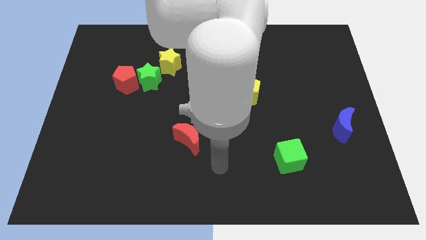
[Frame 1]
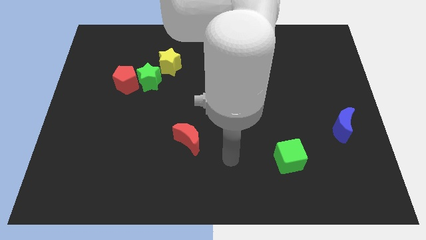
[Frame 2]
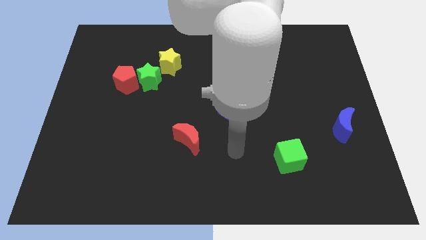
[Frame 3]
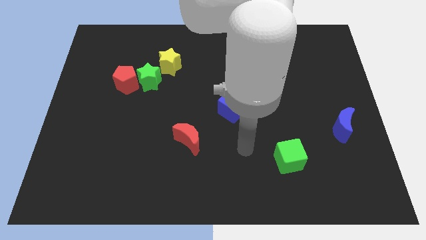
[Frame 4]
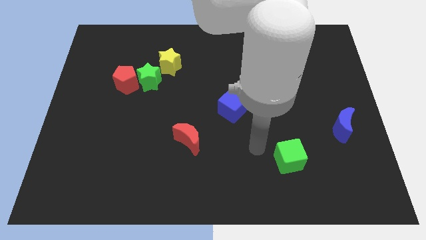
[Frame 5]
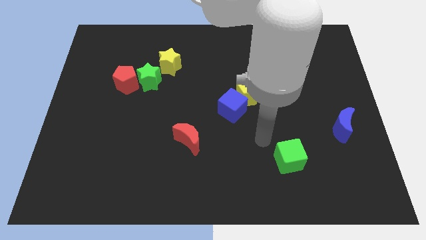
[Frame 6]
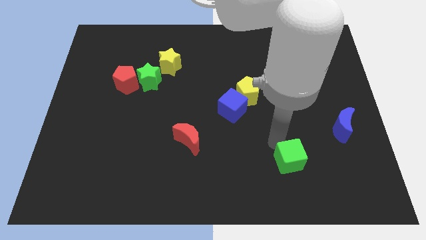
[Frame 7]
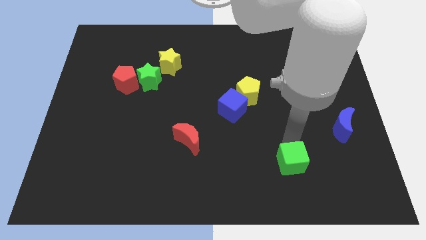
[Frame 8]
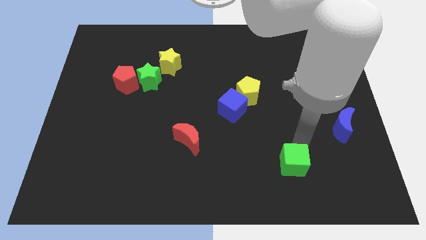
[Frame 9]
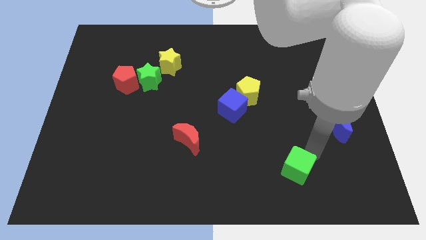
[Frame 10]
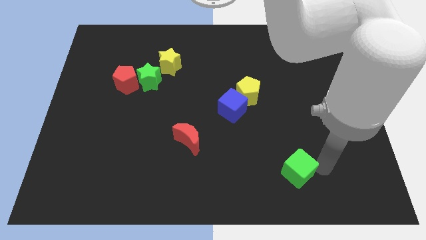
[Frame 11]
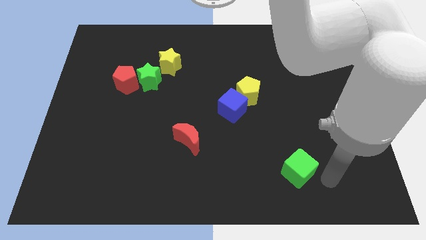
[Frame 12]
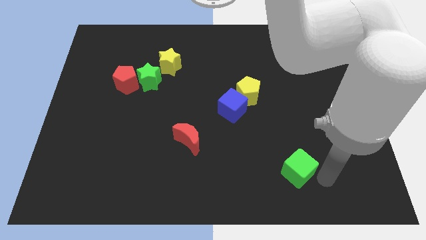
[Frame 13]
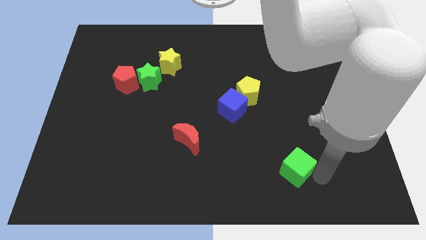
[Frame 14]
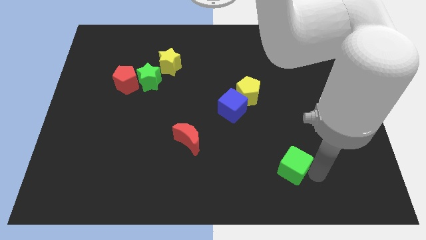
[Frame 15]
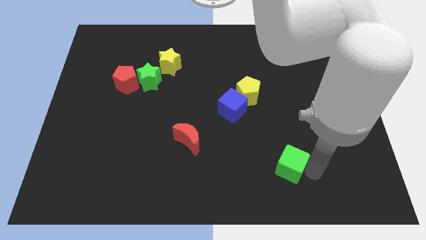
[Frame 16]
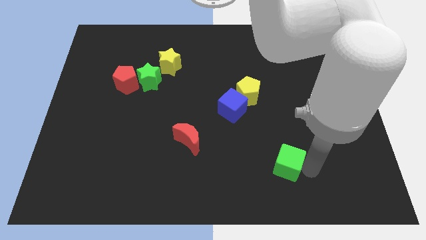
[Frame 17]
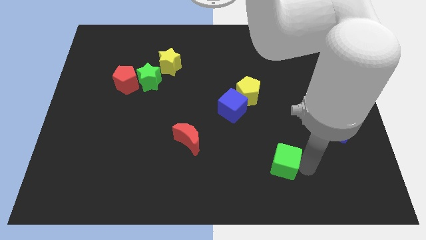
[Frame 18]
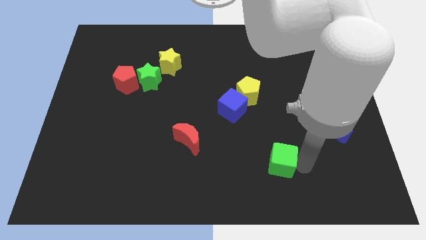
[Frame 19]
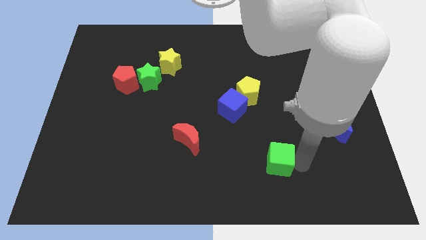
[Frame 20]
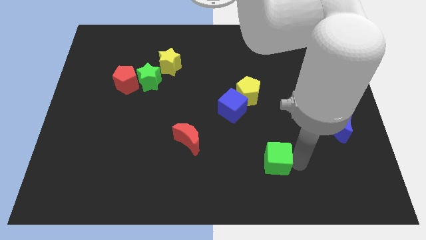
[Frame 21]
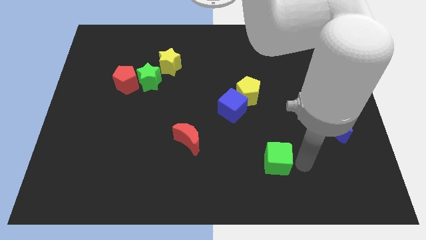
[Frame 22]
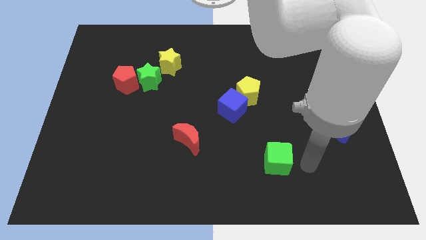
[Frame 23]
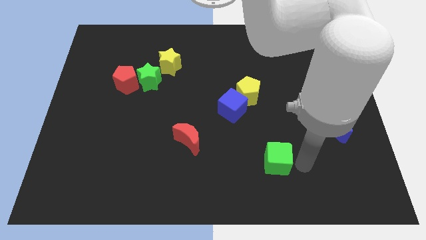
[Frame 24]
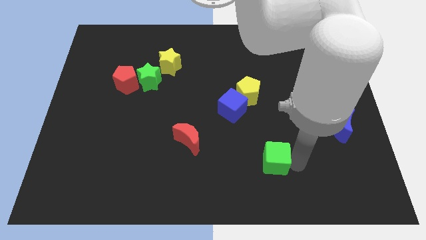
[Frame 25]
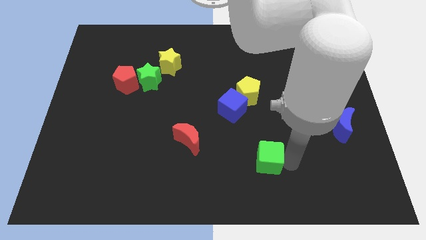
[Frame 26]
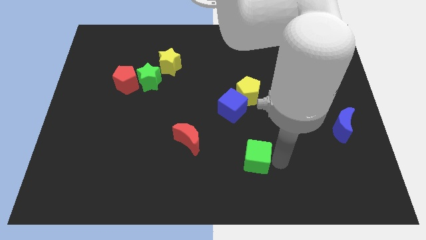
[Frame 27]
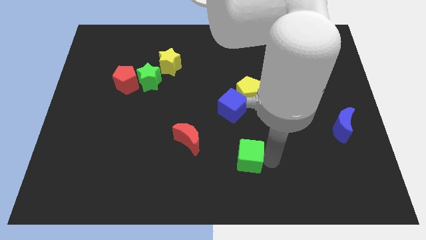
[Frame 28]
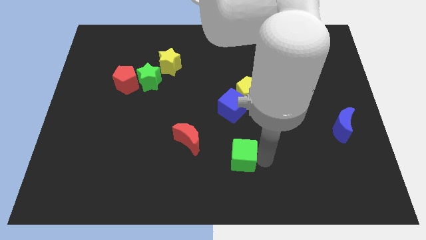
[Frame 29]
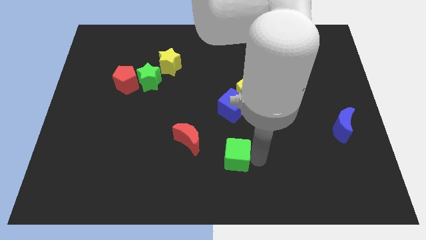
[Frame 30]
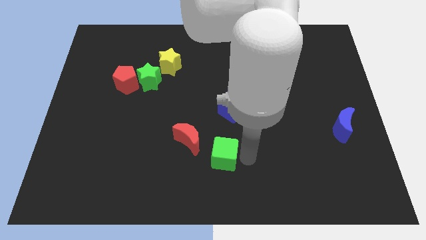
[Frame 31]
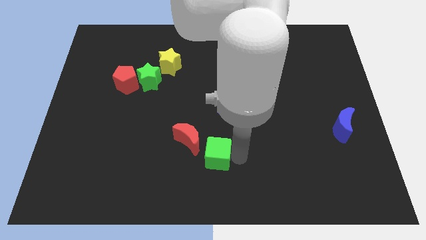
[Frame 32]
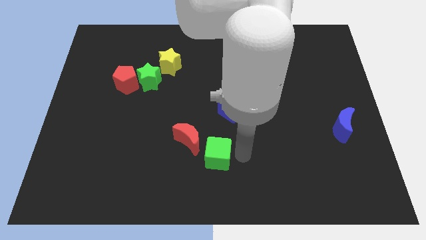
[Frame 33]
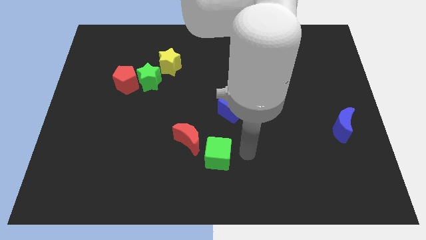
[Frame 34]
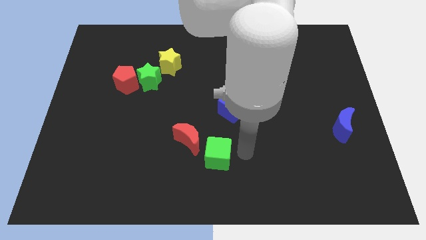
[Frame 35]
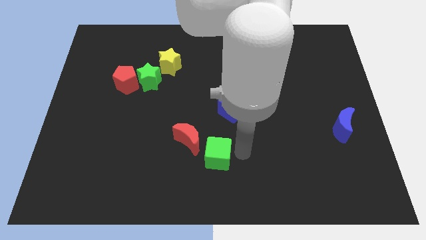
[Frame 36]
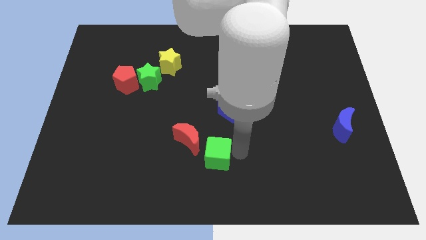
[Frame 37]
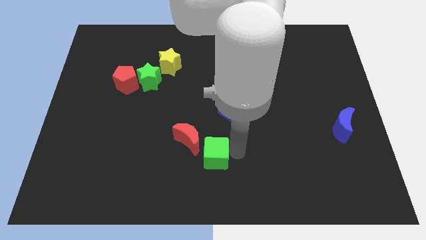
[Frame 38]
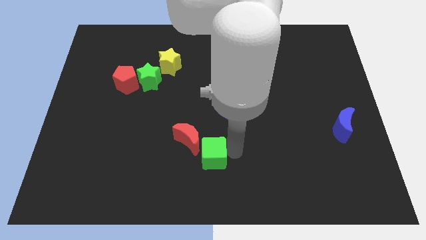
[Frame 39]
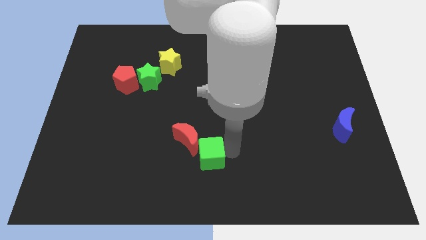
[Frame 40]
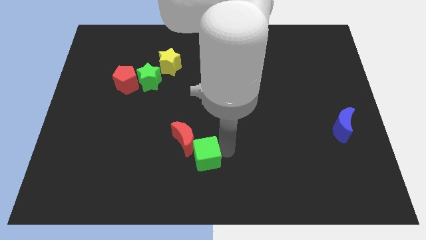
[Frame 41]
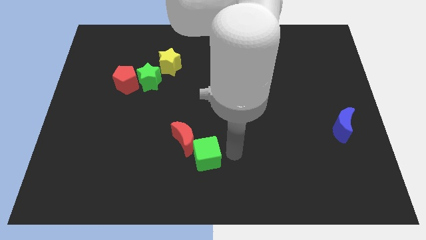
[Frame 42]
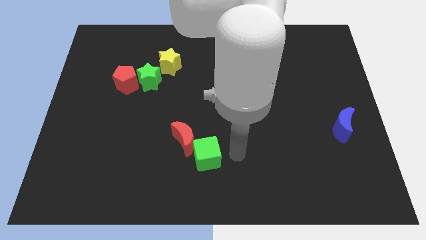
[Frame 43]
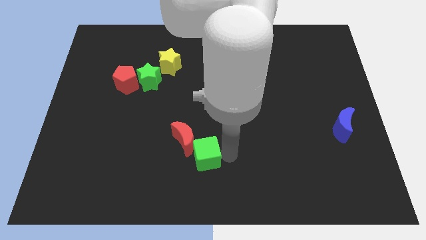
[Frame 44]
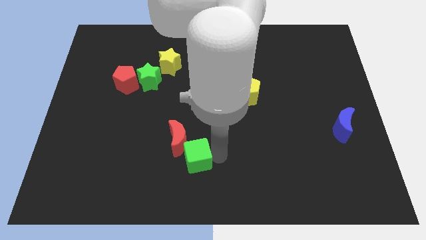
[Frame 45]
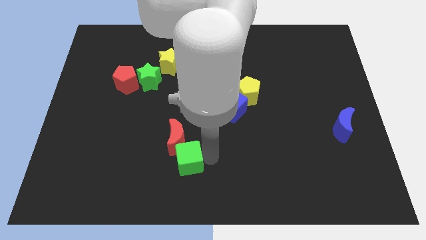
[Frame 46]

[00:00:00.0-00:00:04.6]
move the green cube to the left

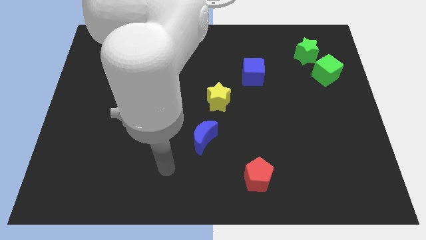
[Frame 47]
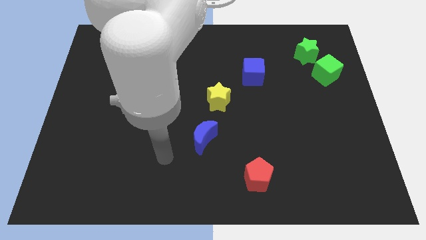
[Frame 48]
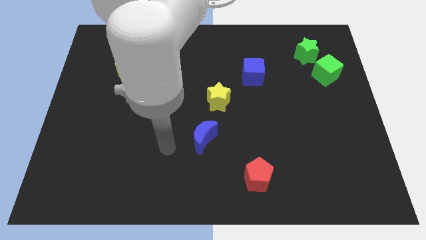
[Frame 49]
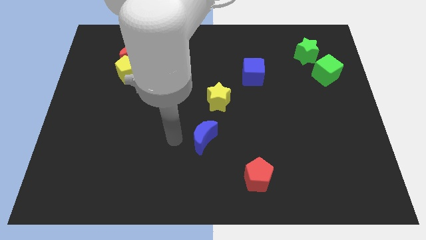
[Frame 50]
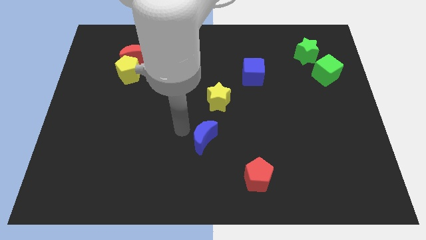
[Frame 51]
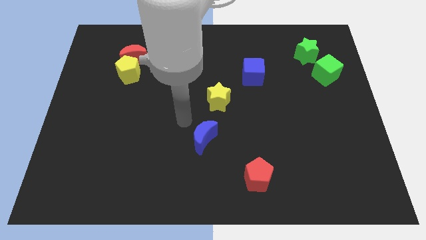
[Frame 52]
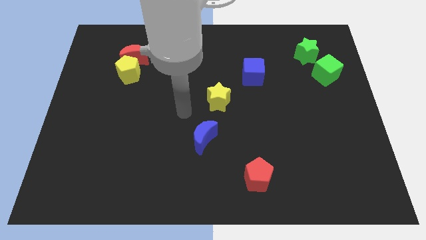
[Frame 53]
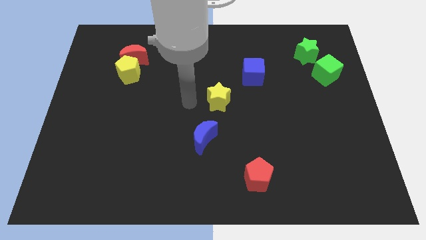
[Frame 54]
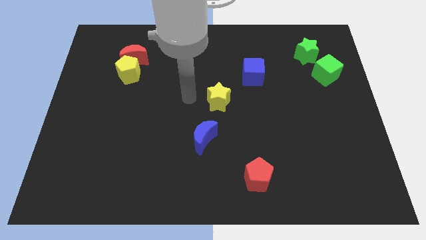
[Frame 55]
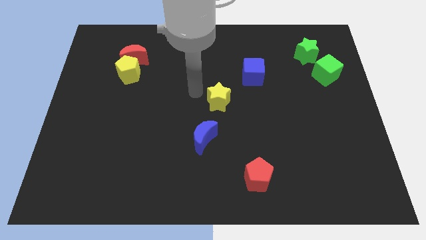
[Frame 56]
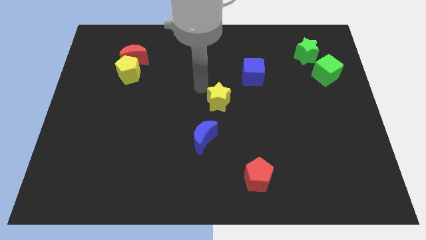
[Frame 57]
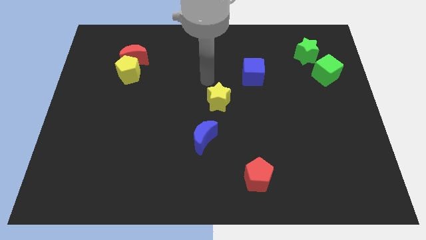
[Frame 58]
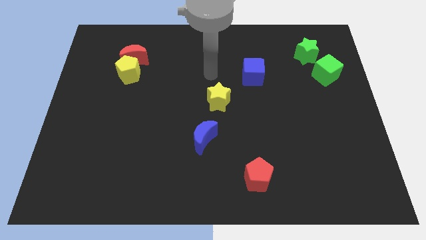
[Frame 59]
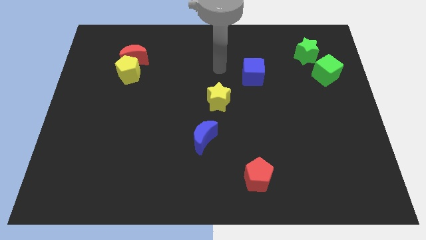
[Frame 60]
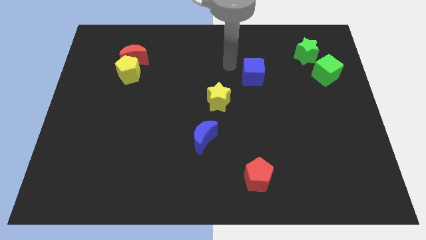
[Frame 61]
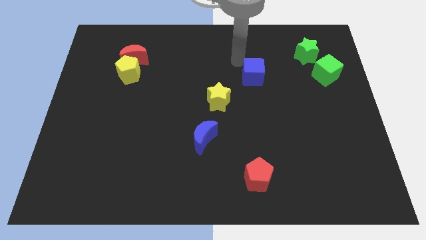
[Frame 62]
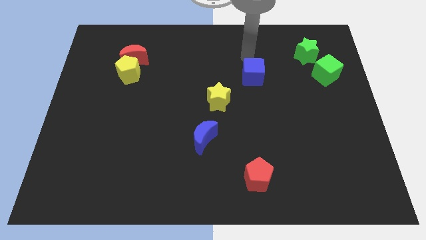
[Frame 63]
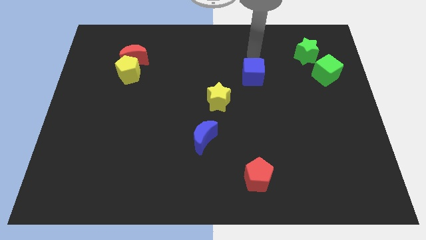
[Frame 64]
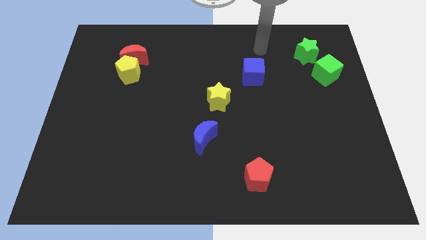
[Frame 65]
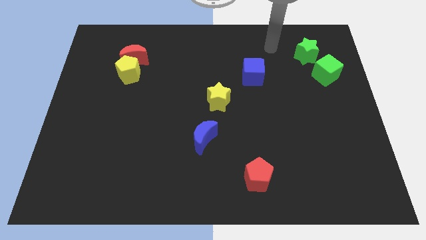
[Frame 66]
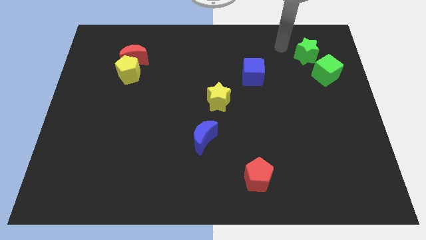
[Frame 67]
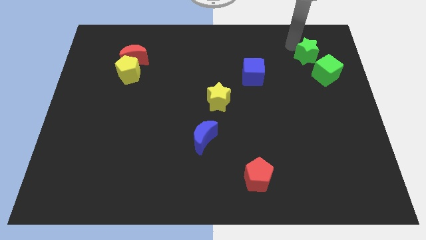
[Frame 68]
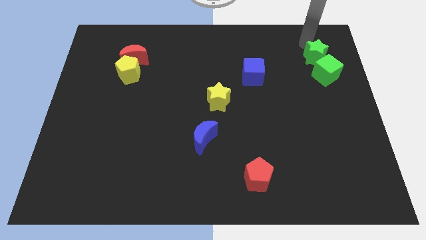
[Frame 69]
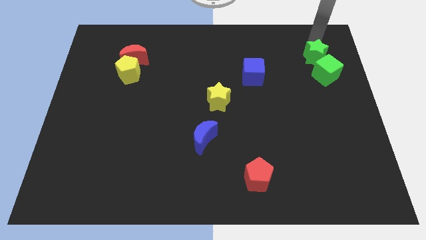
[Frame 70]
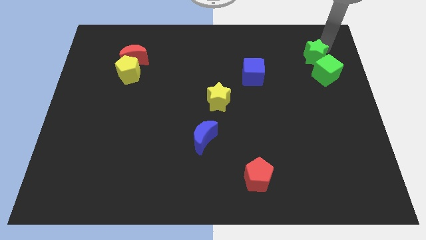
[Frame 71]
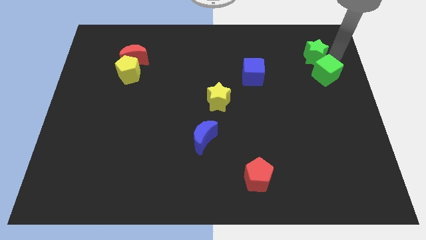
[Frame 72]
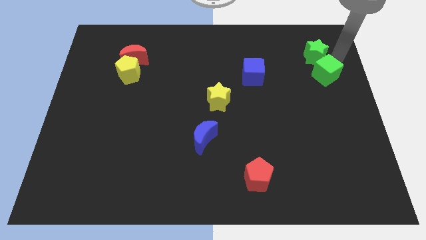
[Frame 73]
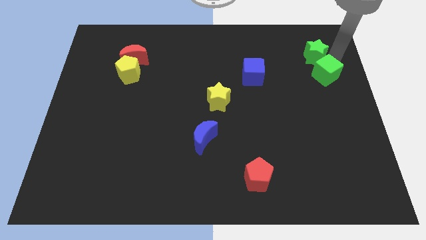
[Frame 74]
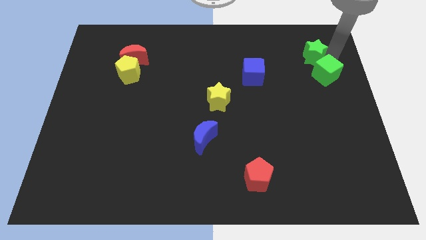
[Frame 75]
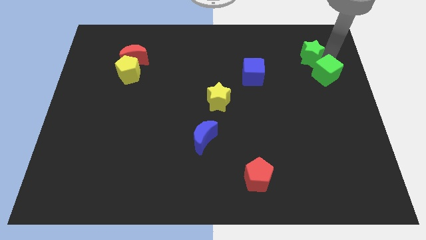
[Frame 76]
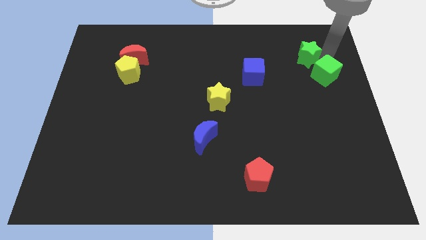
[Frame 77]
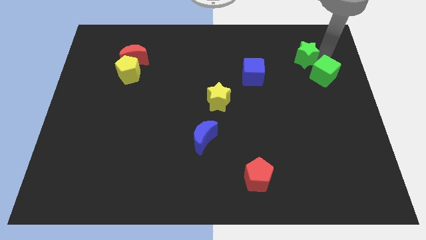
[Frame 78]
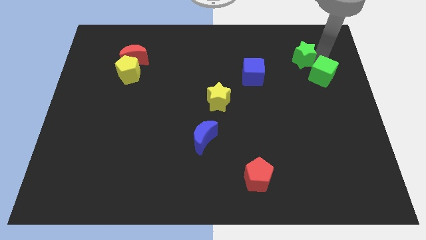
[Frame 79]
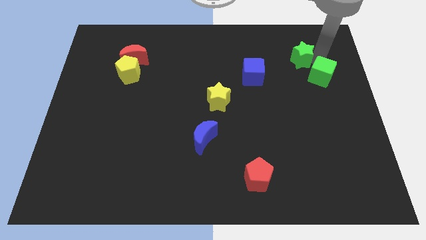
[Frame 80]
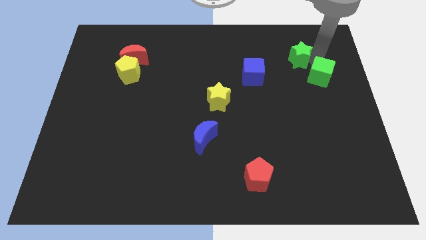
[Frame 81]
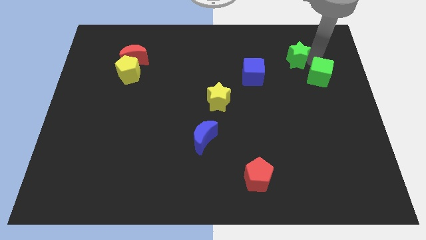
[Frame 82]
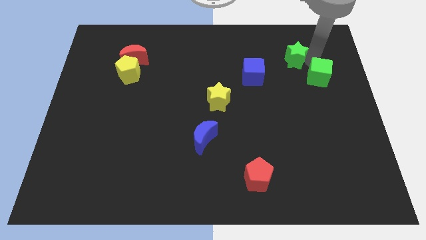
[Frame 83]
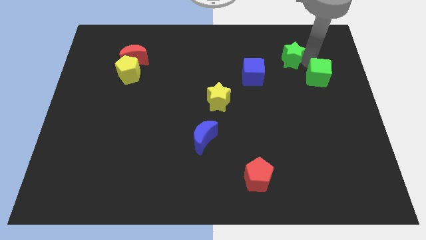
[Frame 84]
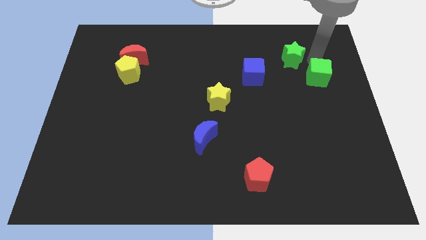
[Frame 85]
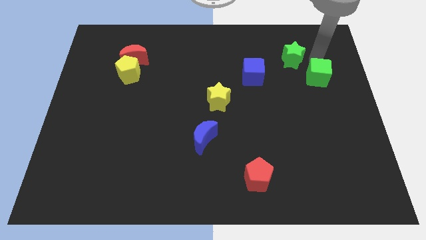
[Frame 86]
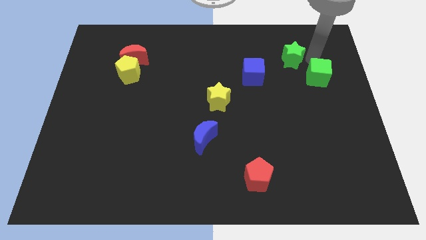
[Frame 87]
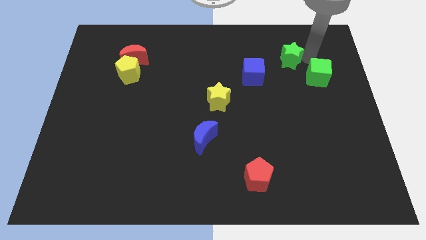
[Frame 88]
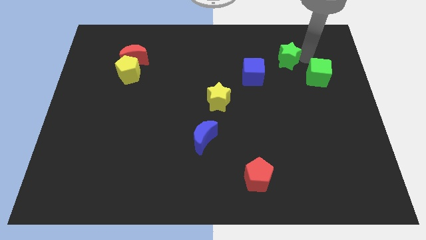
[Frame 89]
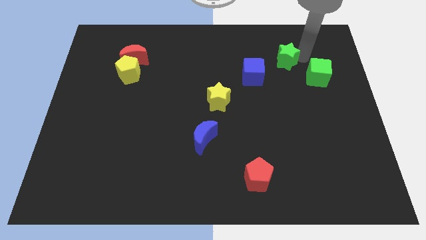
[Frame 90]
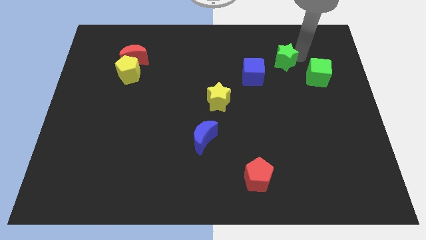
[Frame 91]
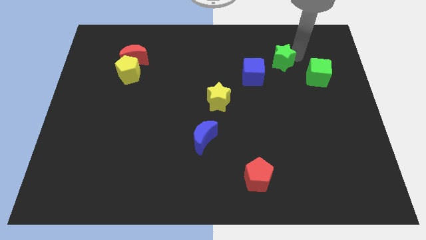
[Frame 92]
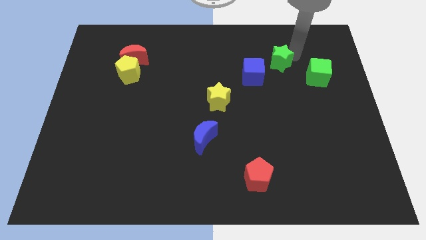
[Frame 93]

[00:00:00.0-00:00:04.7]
push the green star left a little bit
